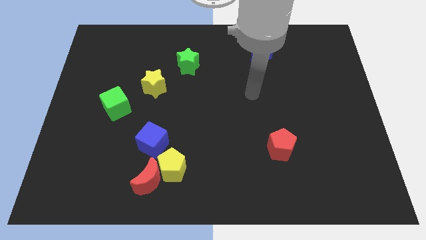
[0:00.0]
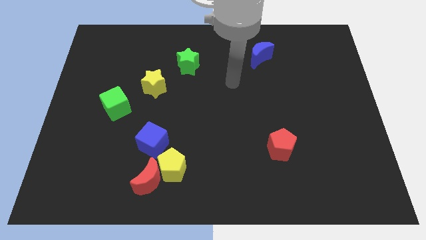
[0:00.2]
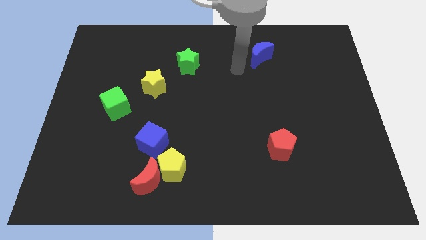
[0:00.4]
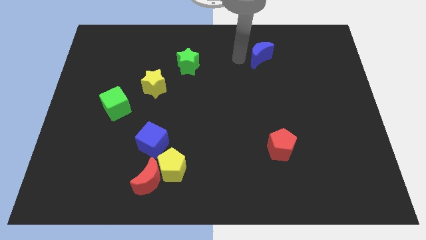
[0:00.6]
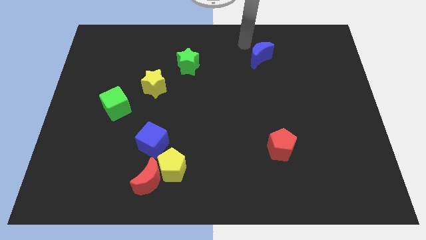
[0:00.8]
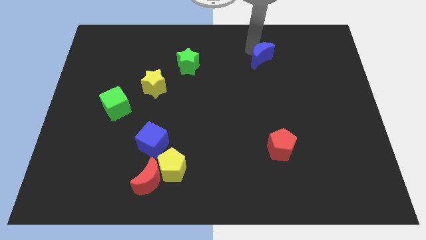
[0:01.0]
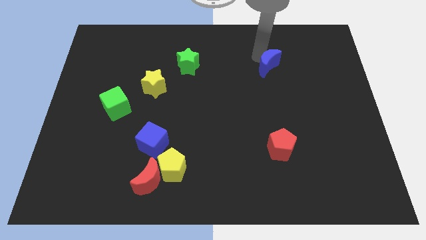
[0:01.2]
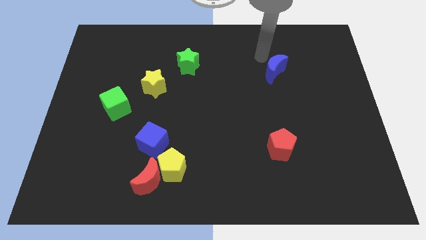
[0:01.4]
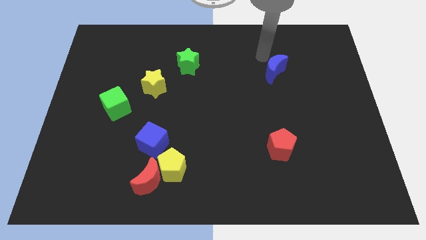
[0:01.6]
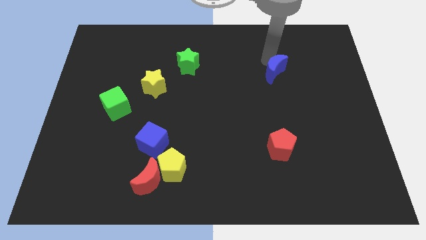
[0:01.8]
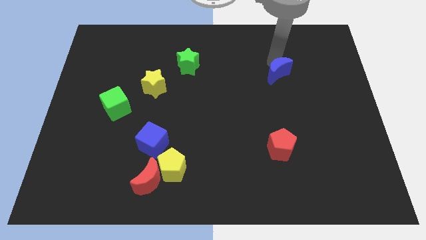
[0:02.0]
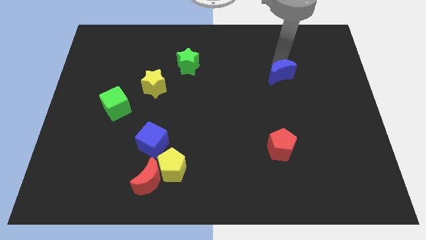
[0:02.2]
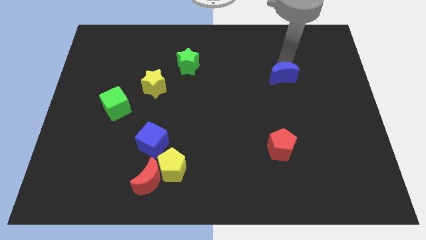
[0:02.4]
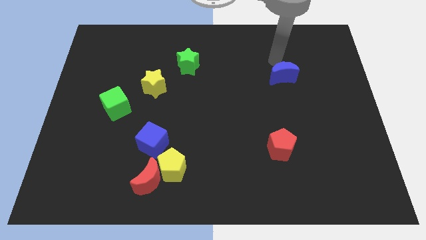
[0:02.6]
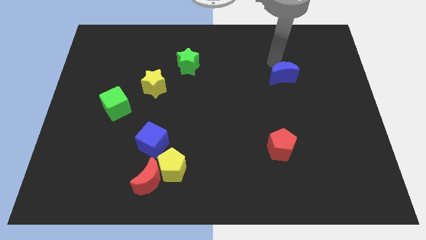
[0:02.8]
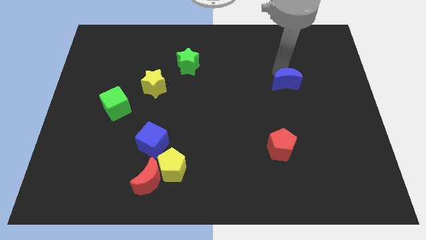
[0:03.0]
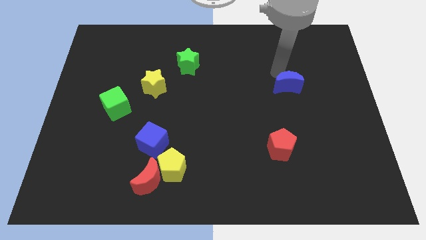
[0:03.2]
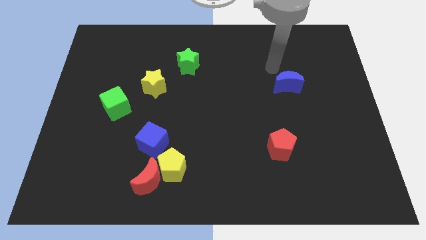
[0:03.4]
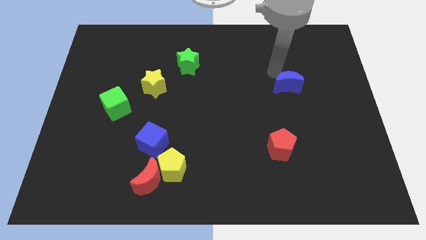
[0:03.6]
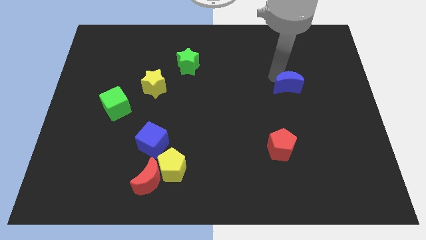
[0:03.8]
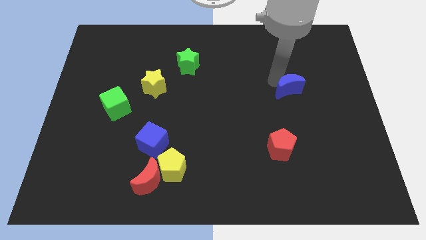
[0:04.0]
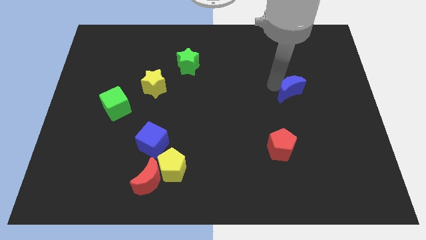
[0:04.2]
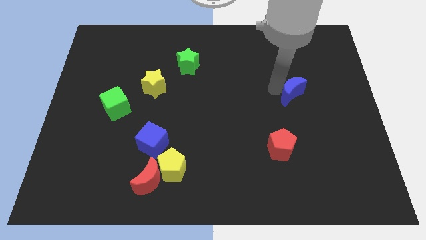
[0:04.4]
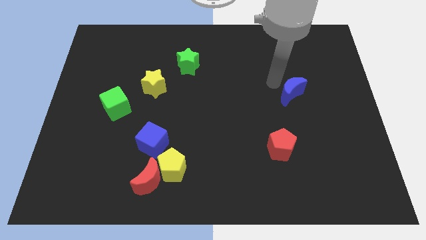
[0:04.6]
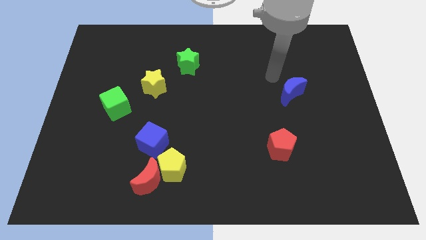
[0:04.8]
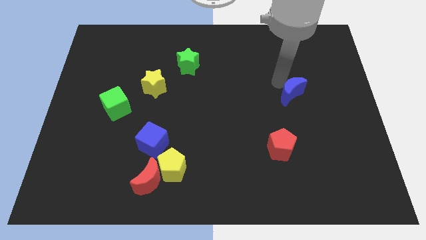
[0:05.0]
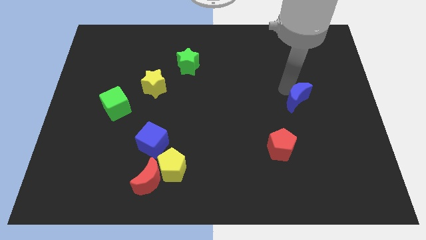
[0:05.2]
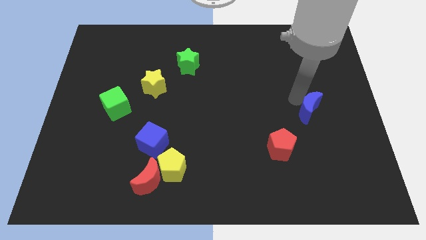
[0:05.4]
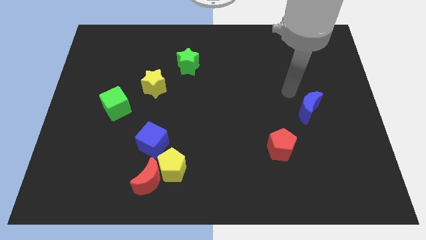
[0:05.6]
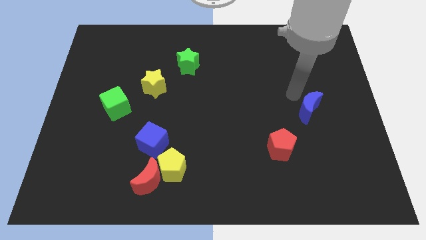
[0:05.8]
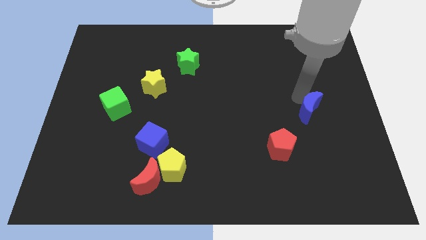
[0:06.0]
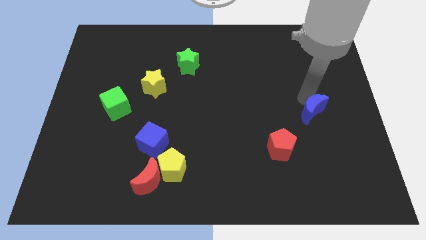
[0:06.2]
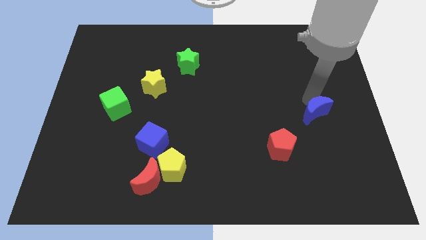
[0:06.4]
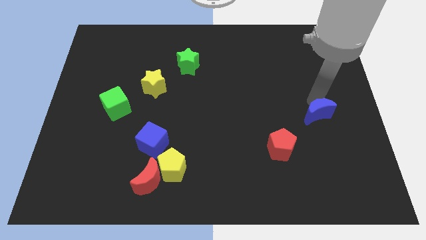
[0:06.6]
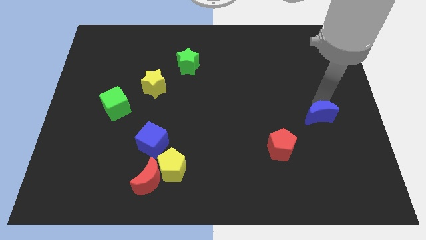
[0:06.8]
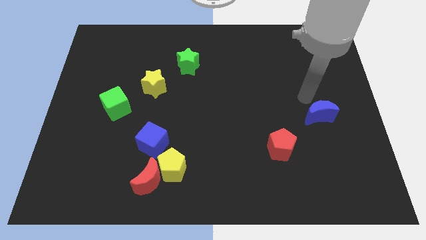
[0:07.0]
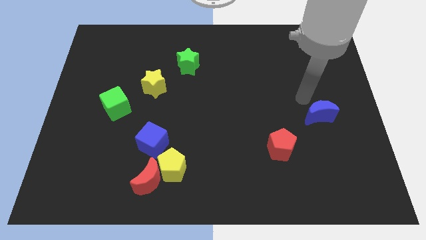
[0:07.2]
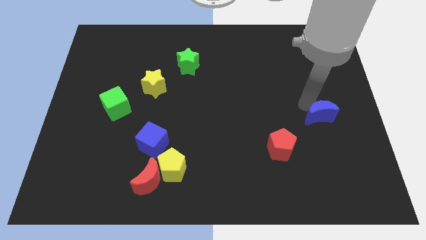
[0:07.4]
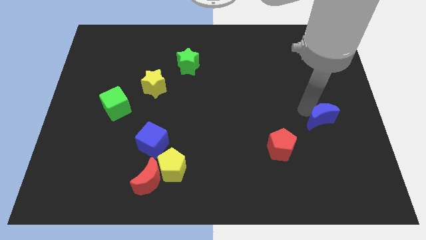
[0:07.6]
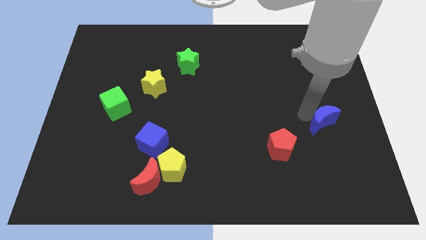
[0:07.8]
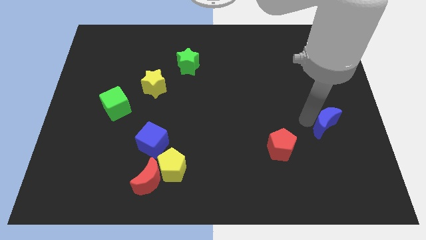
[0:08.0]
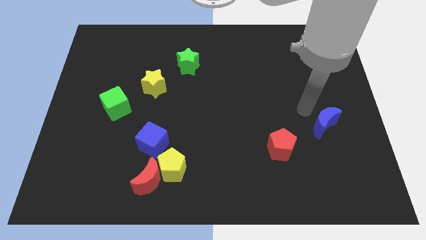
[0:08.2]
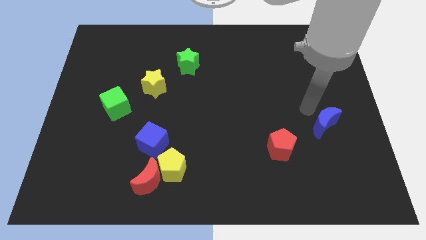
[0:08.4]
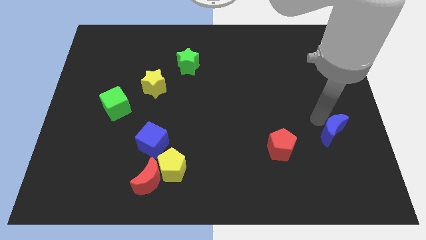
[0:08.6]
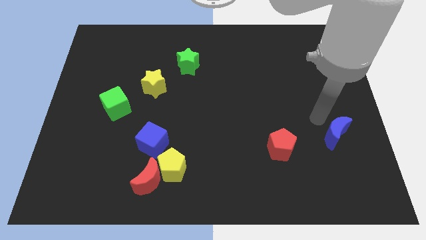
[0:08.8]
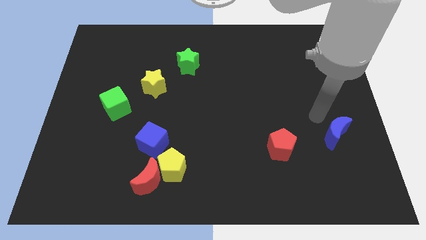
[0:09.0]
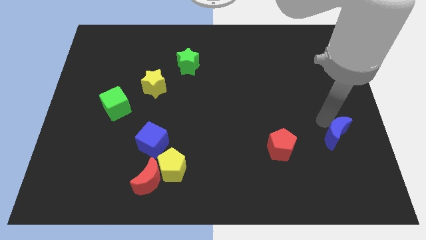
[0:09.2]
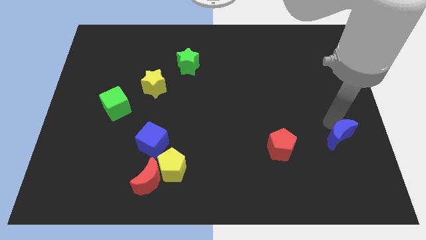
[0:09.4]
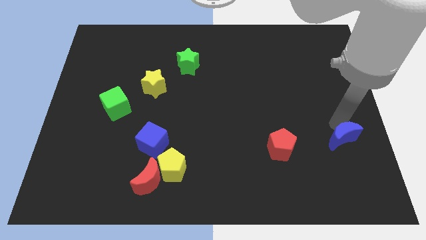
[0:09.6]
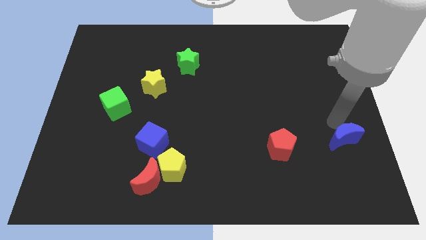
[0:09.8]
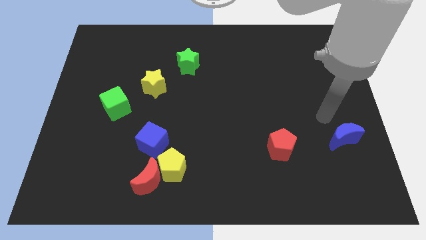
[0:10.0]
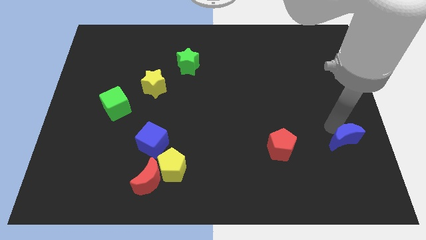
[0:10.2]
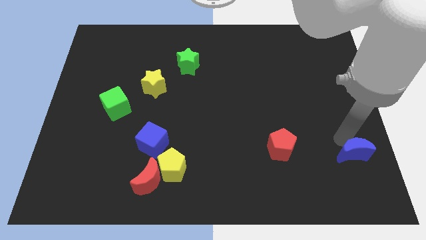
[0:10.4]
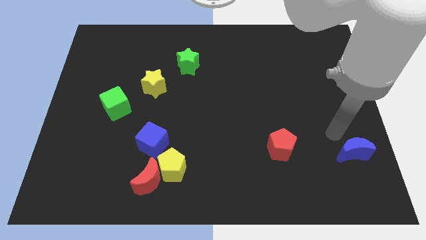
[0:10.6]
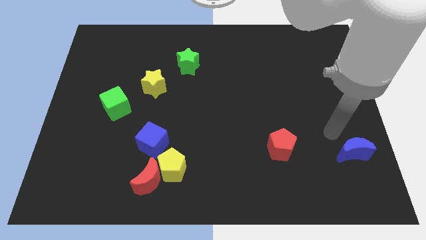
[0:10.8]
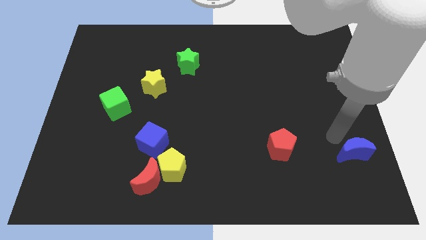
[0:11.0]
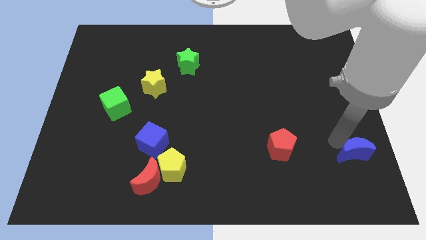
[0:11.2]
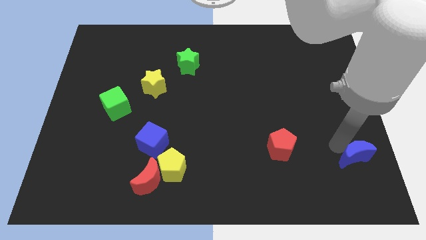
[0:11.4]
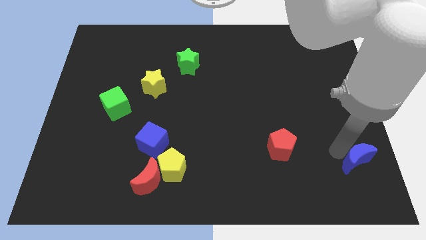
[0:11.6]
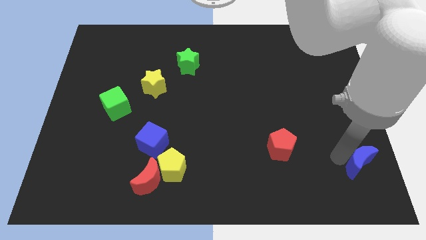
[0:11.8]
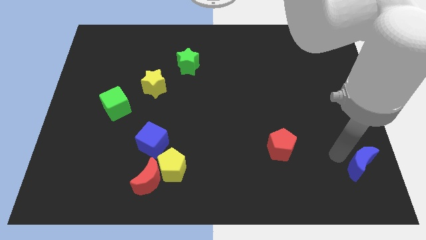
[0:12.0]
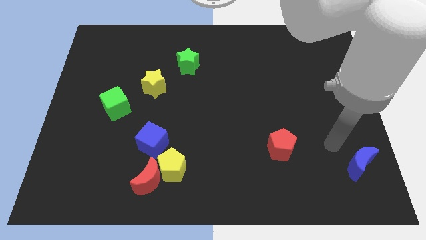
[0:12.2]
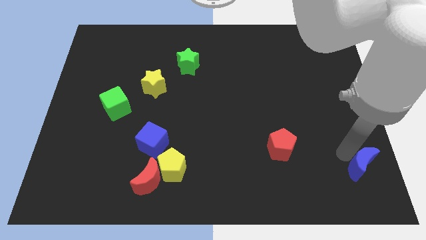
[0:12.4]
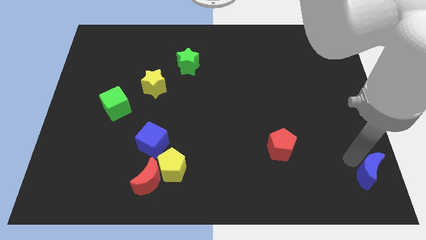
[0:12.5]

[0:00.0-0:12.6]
put the blue moon to the lower right corner
